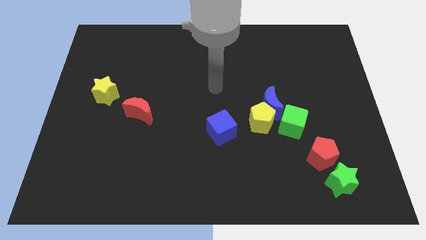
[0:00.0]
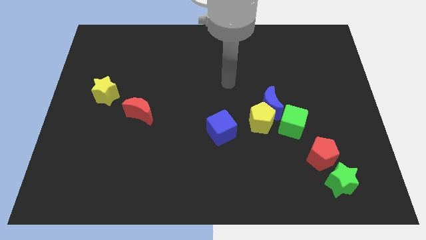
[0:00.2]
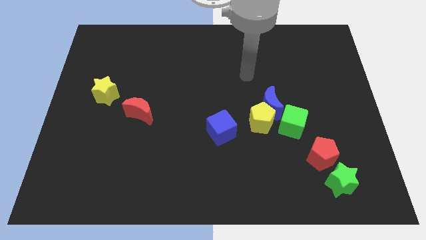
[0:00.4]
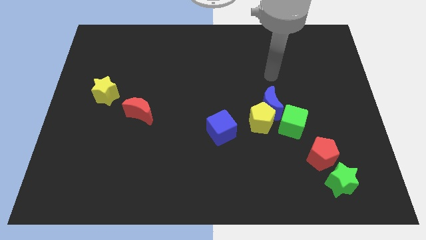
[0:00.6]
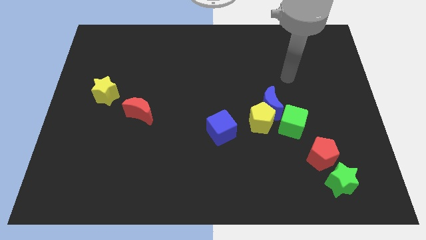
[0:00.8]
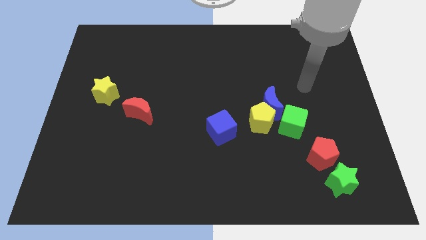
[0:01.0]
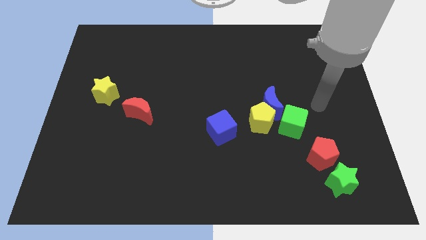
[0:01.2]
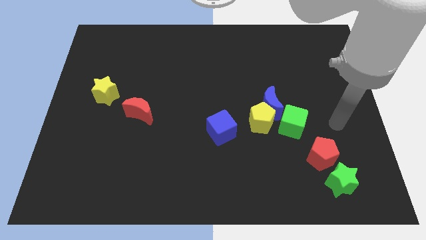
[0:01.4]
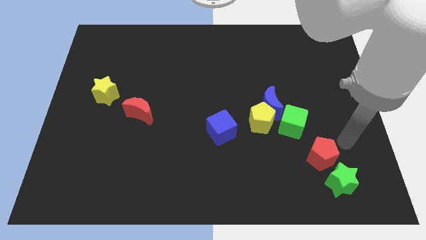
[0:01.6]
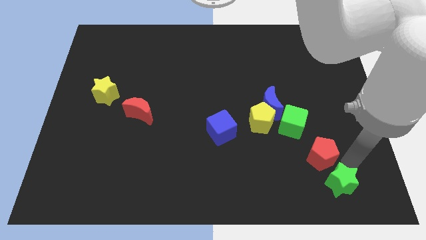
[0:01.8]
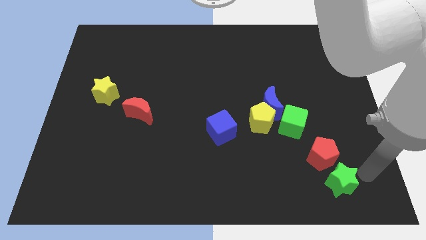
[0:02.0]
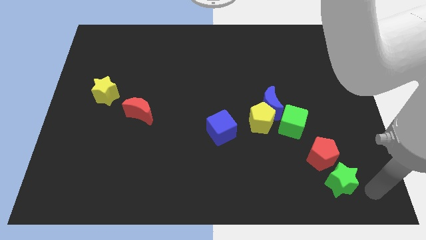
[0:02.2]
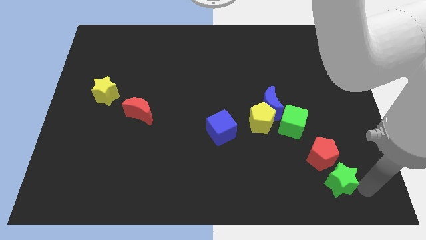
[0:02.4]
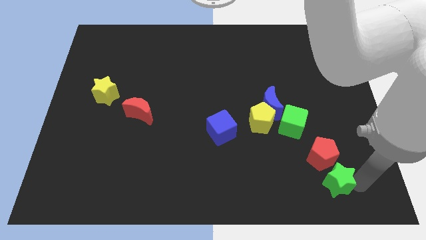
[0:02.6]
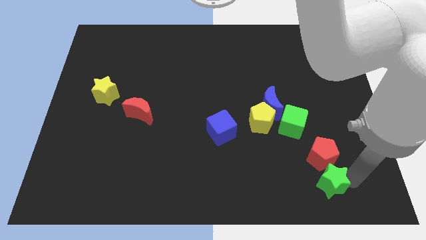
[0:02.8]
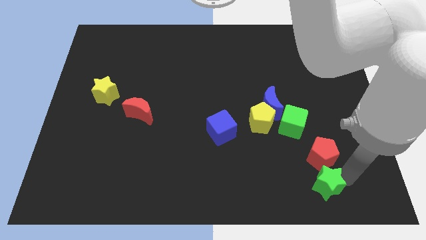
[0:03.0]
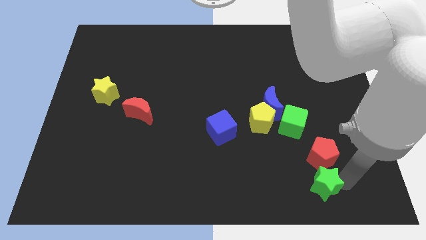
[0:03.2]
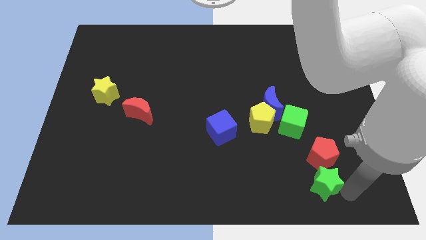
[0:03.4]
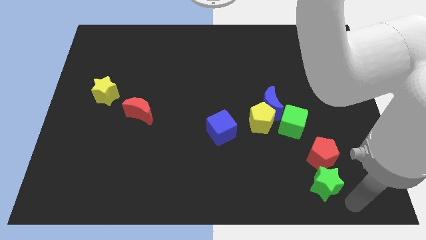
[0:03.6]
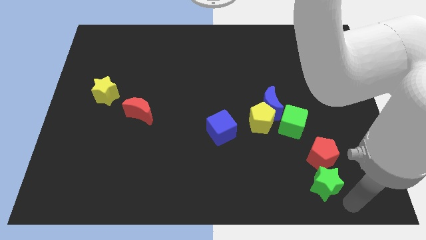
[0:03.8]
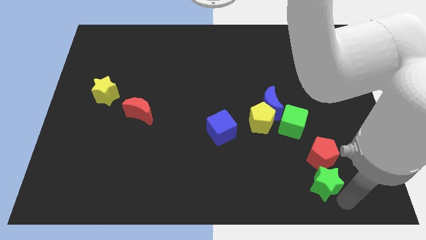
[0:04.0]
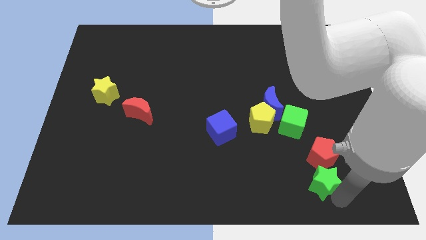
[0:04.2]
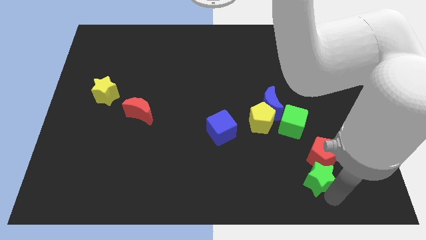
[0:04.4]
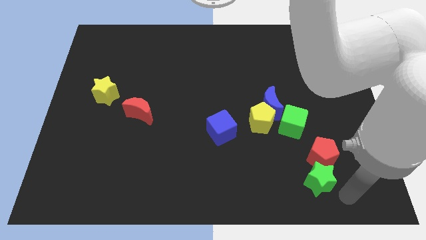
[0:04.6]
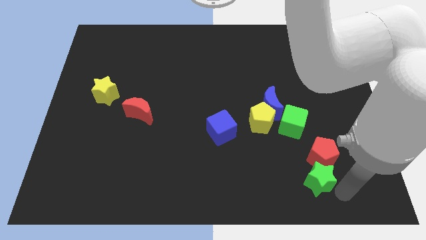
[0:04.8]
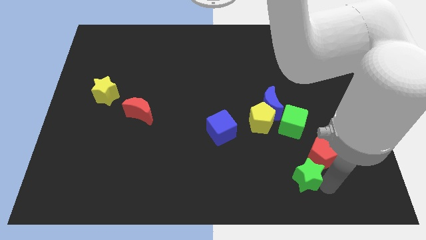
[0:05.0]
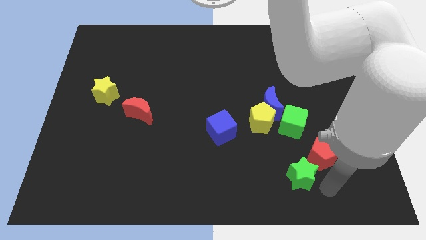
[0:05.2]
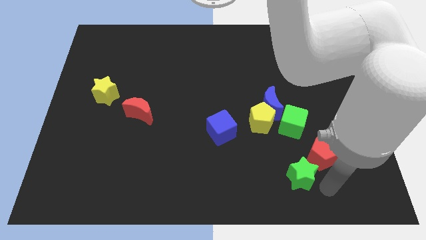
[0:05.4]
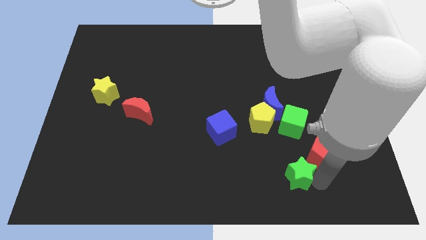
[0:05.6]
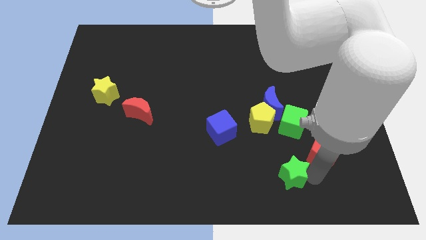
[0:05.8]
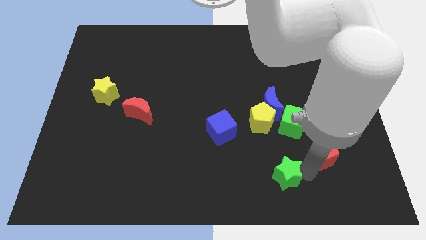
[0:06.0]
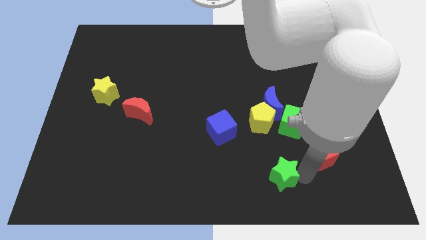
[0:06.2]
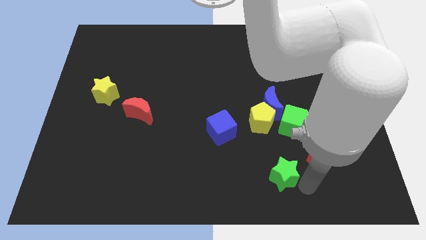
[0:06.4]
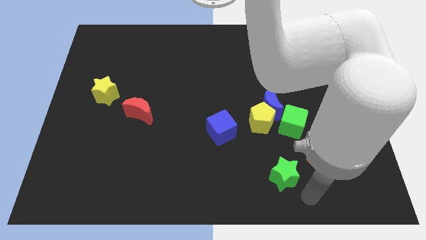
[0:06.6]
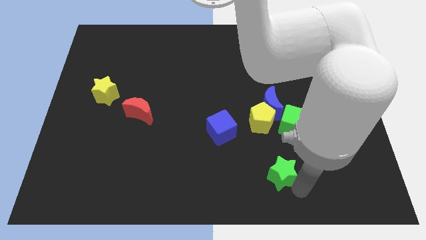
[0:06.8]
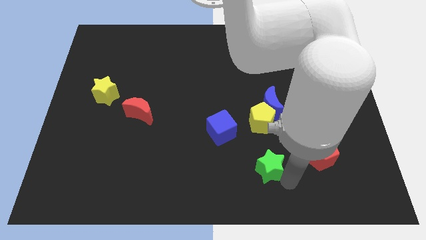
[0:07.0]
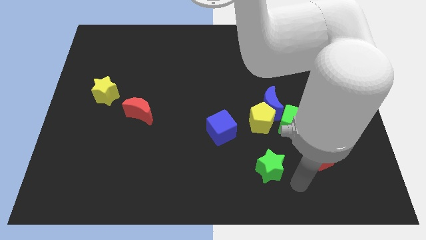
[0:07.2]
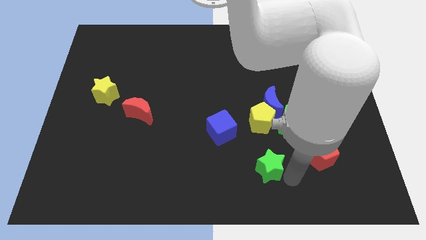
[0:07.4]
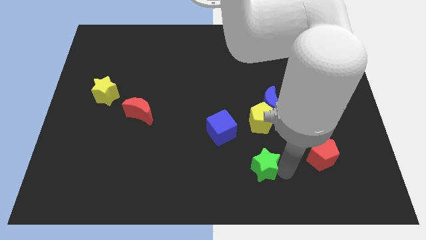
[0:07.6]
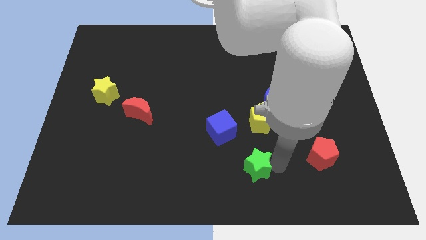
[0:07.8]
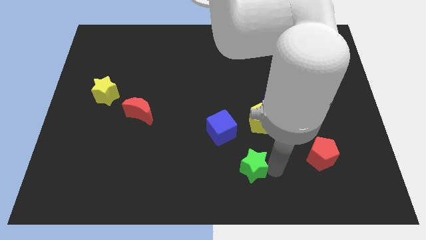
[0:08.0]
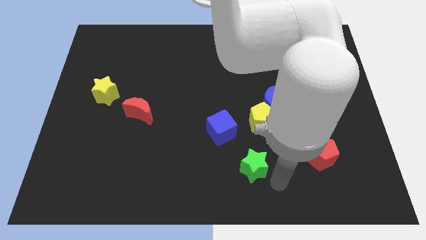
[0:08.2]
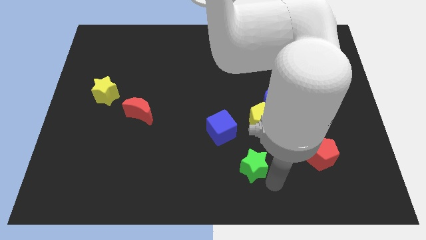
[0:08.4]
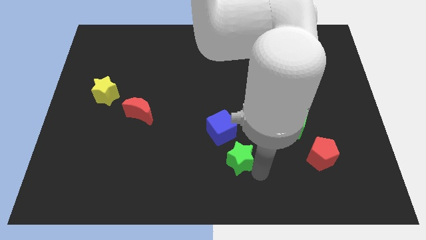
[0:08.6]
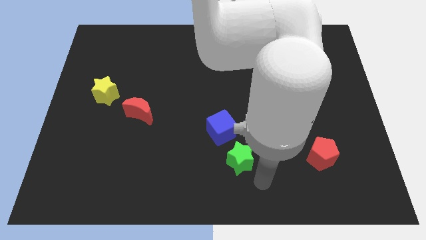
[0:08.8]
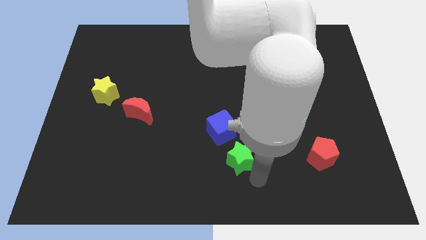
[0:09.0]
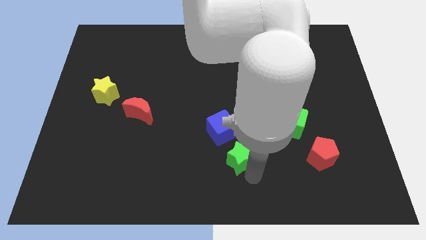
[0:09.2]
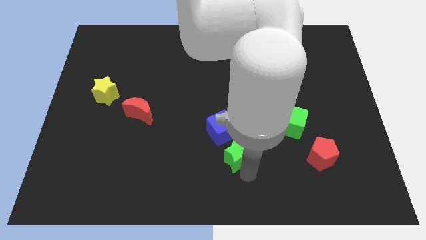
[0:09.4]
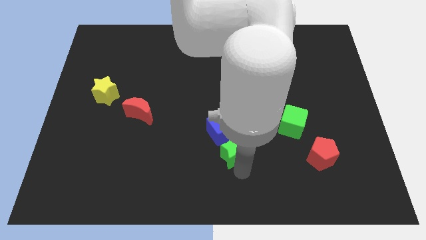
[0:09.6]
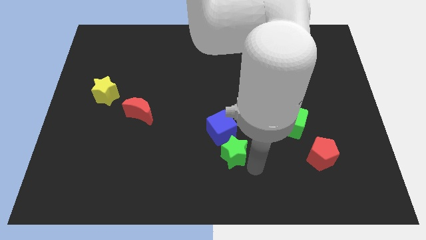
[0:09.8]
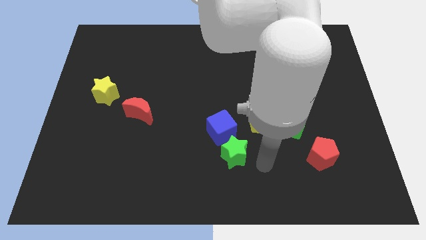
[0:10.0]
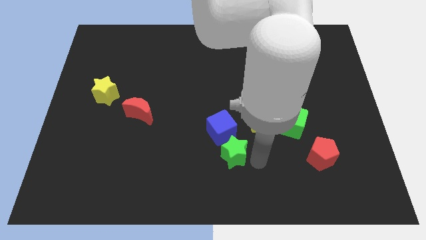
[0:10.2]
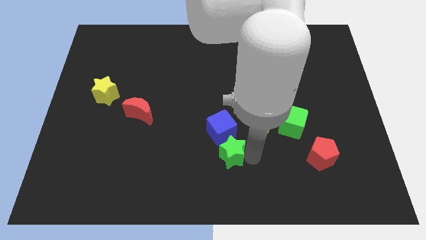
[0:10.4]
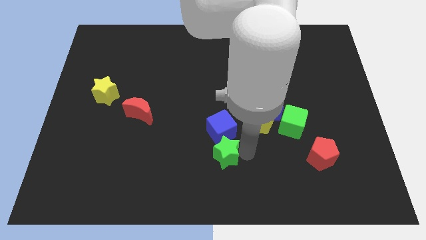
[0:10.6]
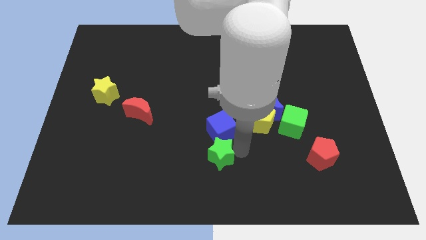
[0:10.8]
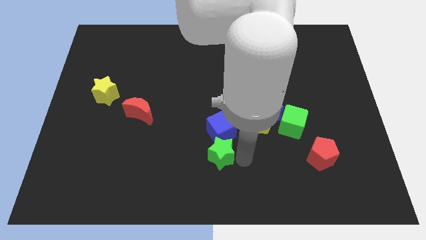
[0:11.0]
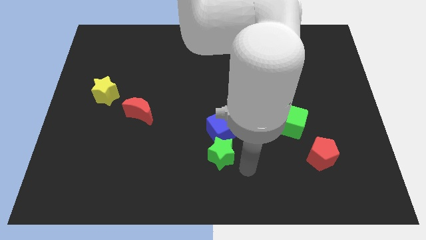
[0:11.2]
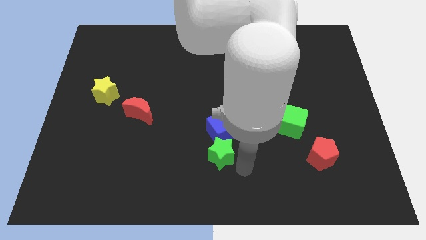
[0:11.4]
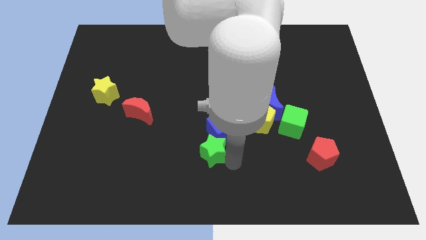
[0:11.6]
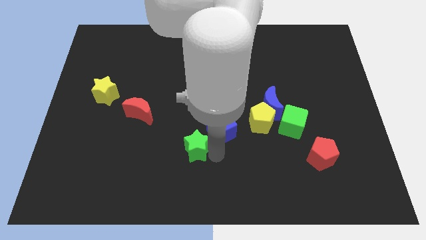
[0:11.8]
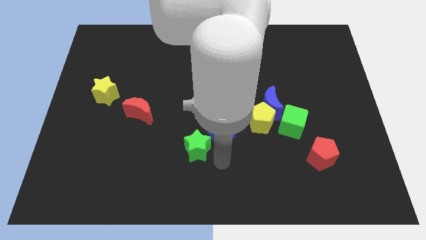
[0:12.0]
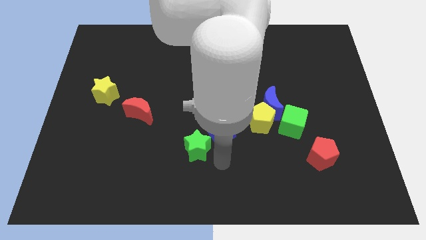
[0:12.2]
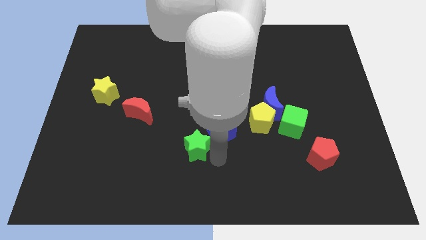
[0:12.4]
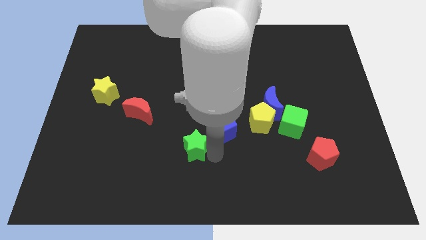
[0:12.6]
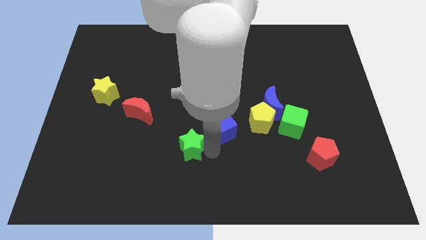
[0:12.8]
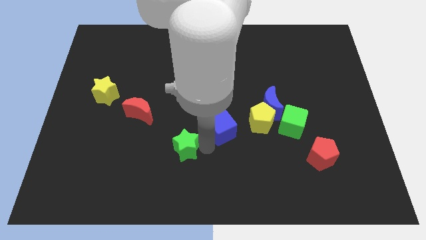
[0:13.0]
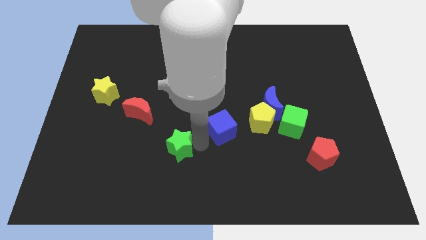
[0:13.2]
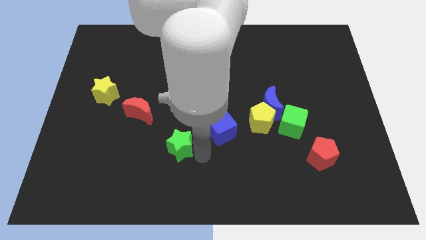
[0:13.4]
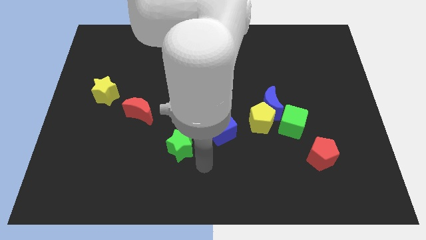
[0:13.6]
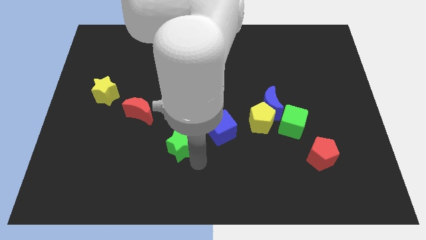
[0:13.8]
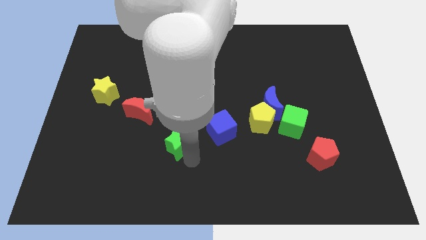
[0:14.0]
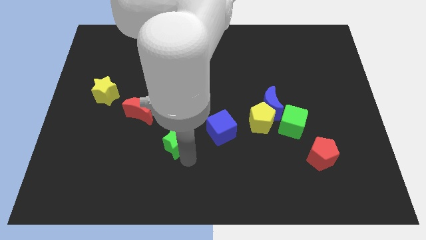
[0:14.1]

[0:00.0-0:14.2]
slide the green star to the bottom right side of the red moon

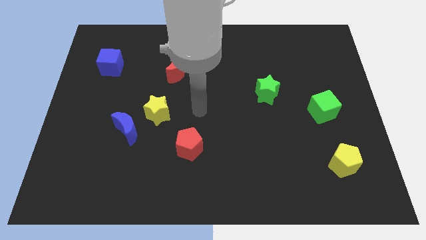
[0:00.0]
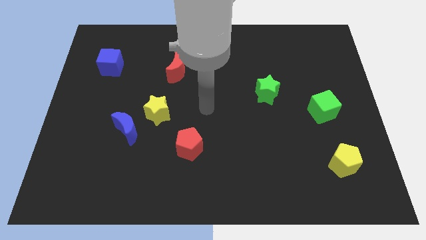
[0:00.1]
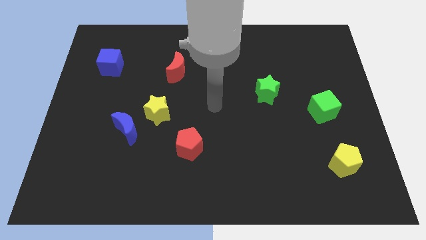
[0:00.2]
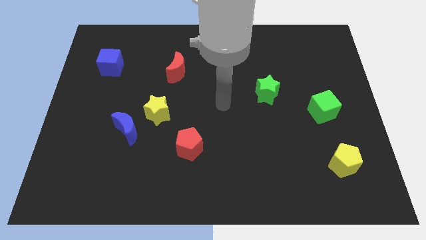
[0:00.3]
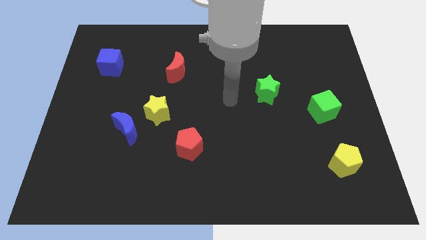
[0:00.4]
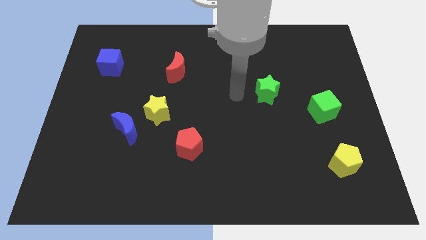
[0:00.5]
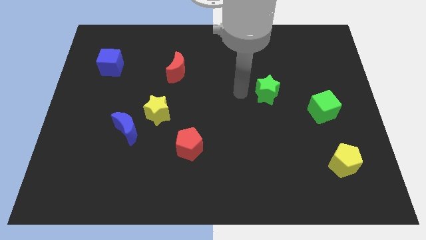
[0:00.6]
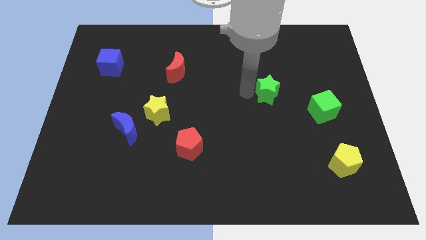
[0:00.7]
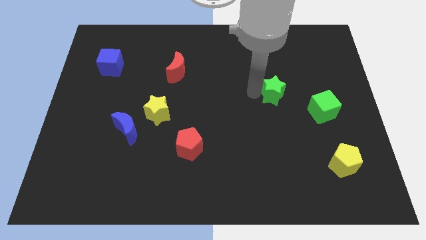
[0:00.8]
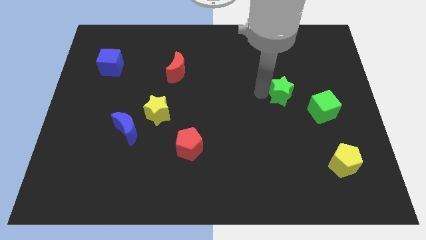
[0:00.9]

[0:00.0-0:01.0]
move the green star to the top left side of the green cube
